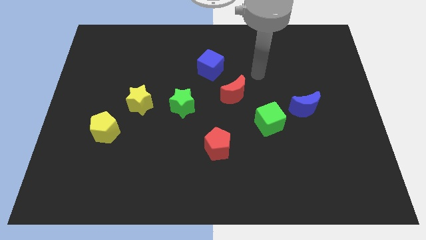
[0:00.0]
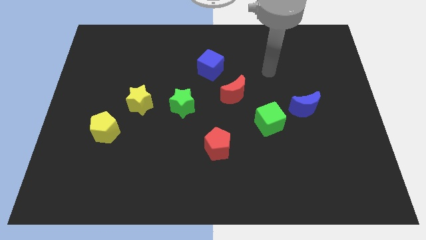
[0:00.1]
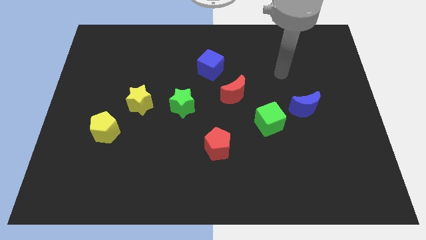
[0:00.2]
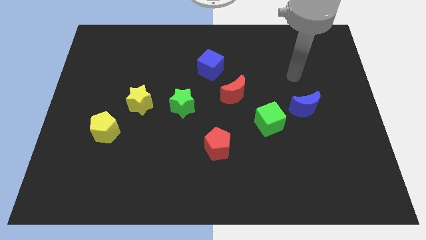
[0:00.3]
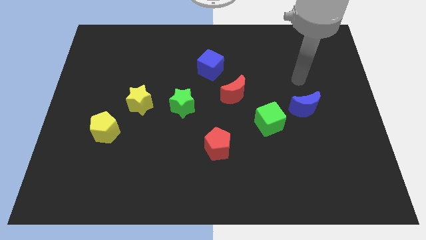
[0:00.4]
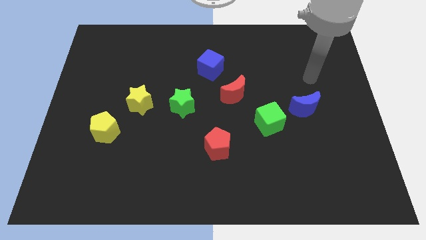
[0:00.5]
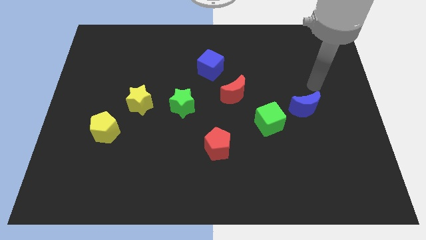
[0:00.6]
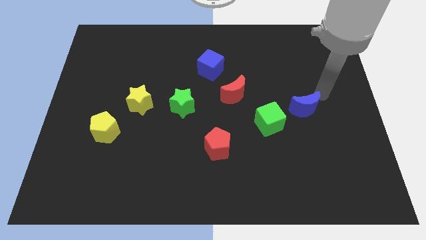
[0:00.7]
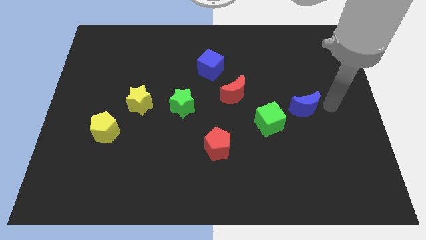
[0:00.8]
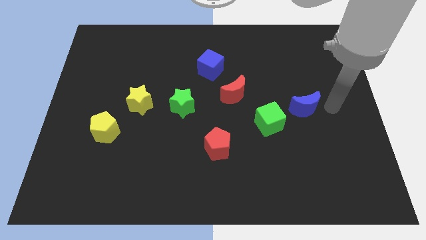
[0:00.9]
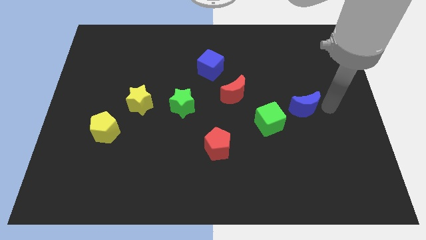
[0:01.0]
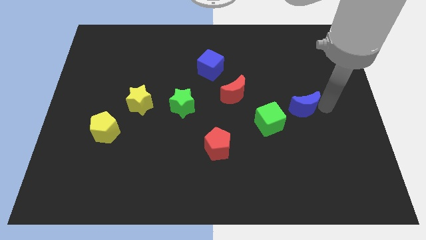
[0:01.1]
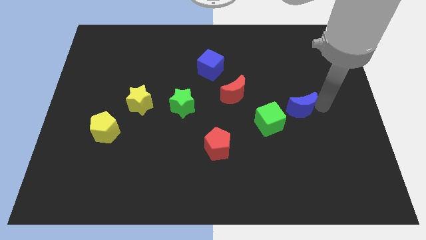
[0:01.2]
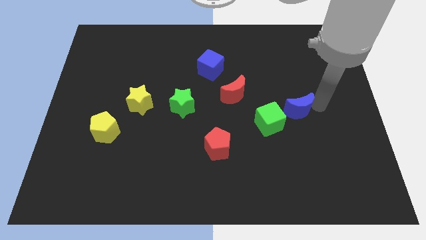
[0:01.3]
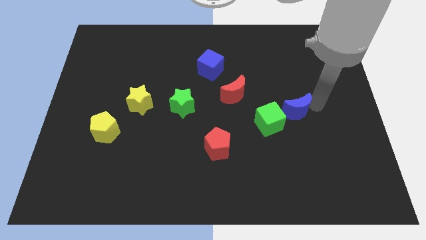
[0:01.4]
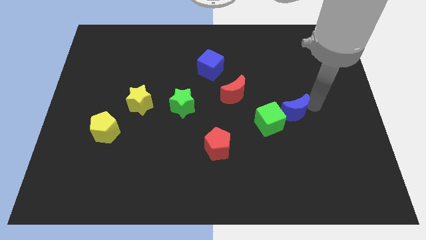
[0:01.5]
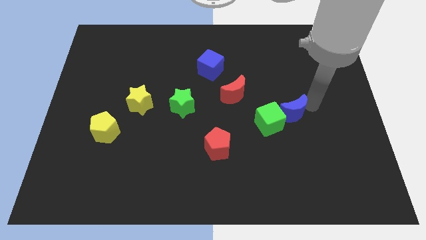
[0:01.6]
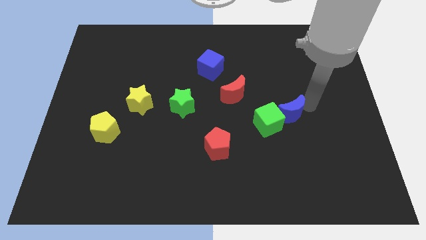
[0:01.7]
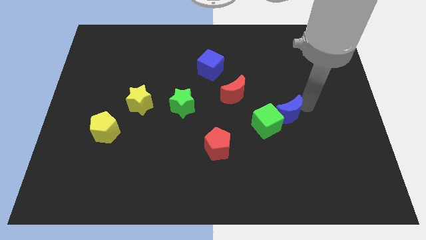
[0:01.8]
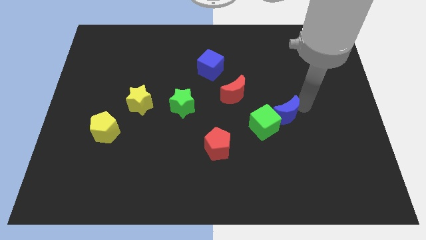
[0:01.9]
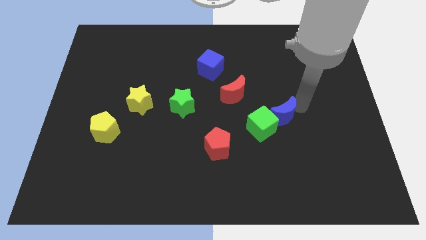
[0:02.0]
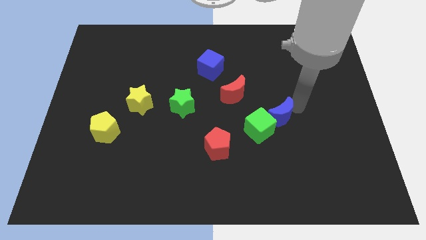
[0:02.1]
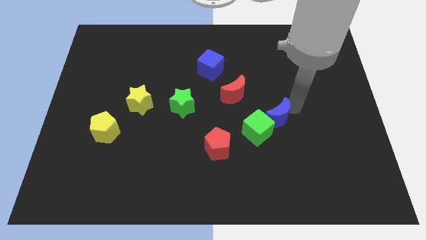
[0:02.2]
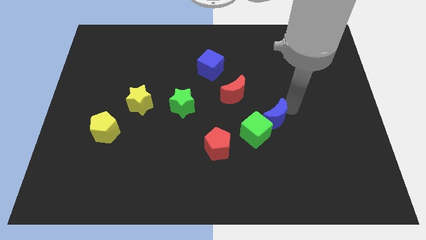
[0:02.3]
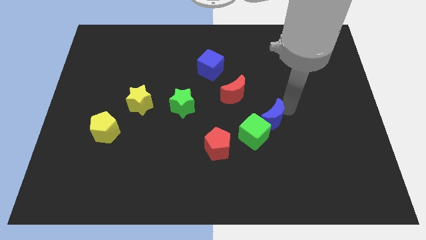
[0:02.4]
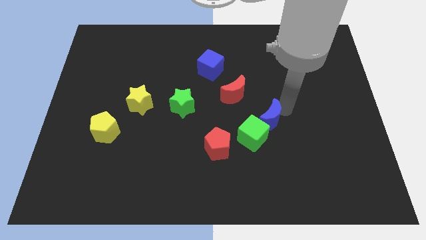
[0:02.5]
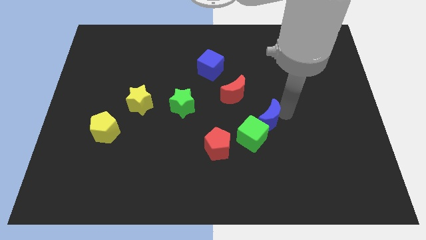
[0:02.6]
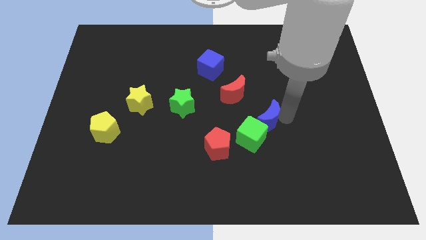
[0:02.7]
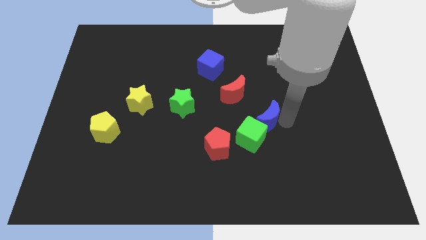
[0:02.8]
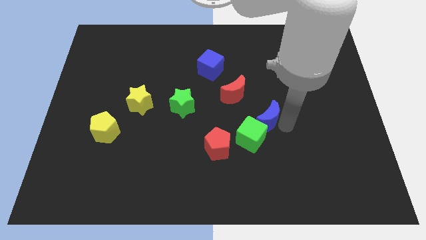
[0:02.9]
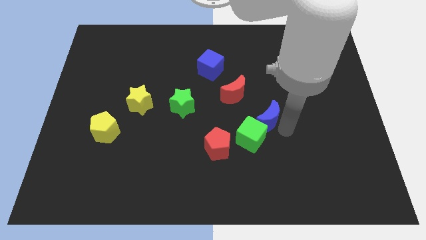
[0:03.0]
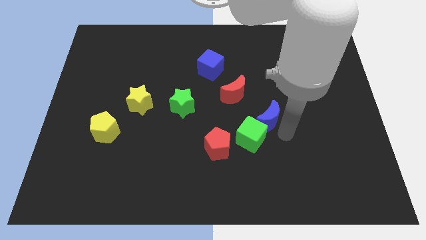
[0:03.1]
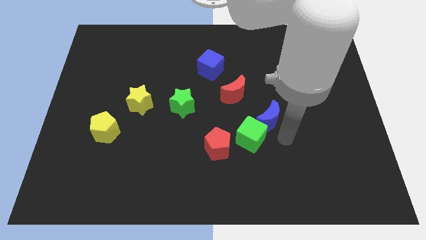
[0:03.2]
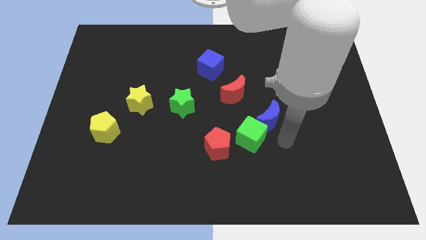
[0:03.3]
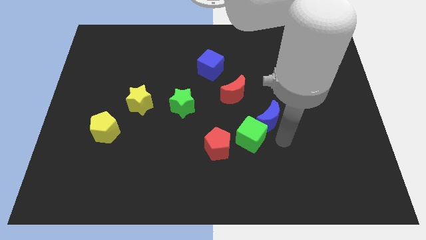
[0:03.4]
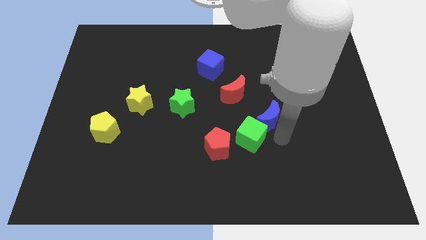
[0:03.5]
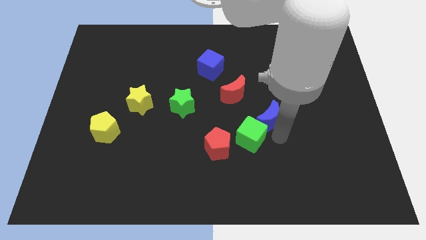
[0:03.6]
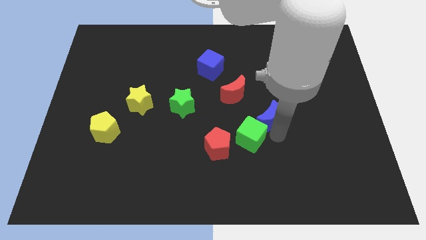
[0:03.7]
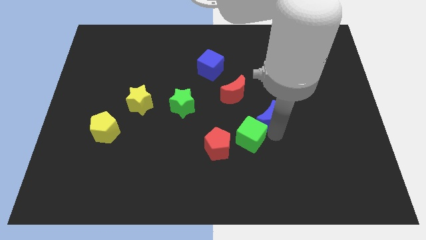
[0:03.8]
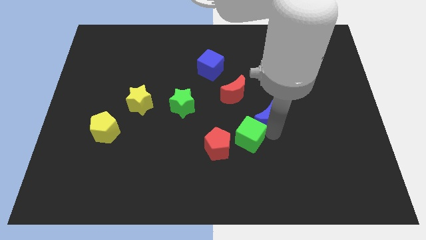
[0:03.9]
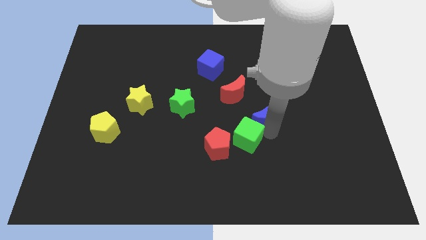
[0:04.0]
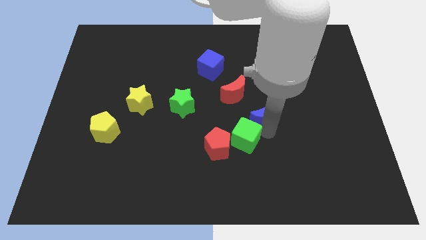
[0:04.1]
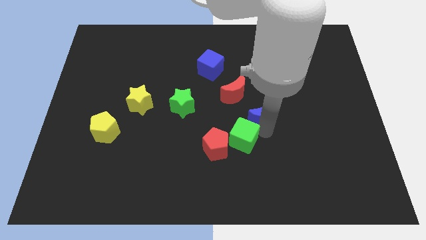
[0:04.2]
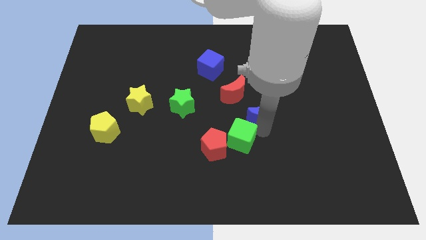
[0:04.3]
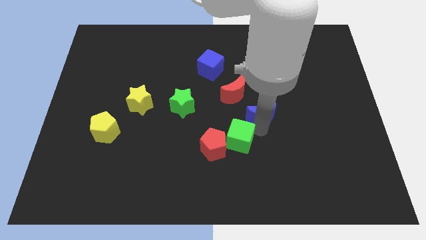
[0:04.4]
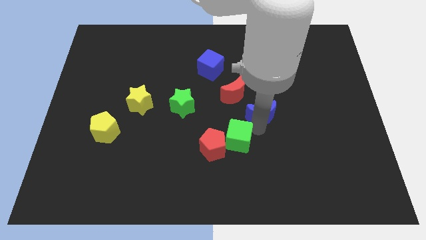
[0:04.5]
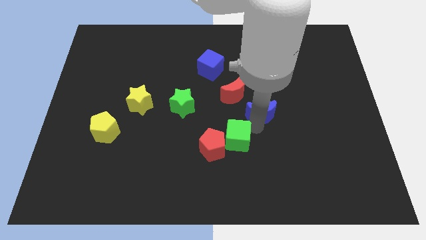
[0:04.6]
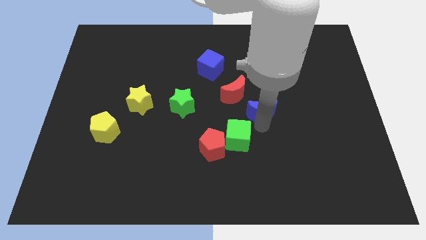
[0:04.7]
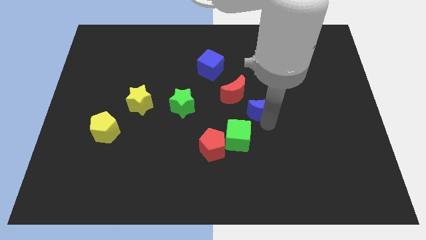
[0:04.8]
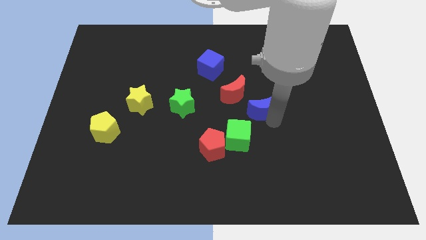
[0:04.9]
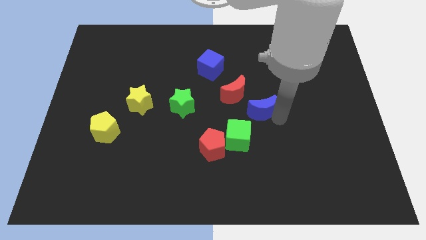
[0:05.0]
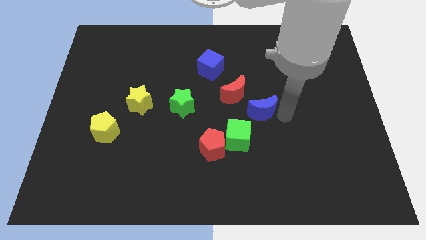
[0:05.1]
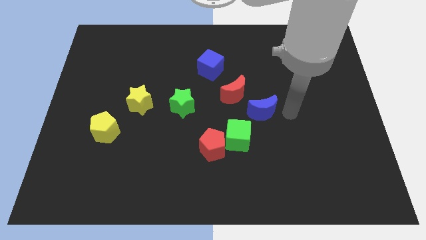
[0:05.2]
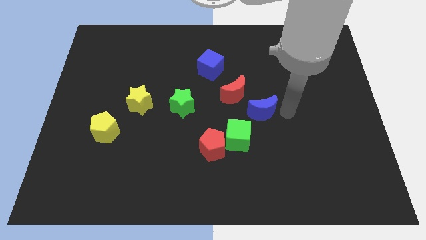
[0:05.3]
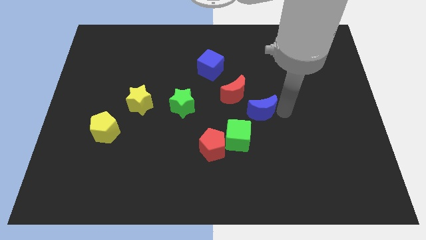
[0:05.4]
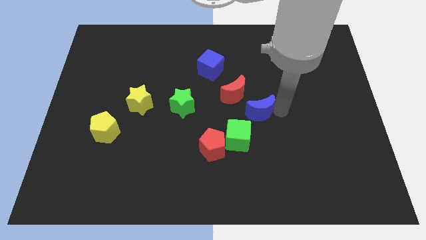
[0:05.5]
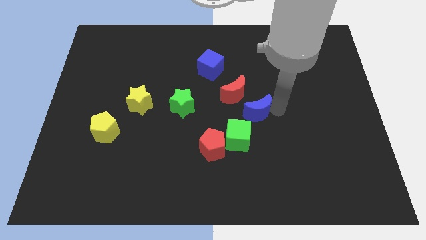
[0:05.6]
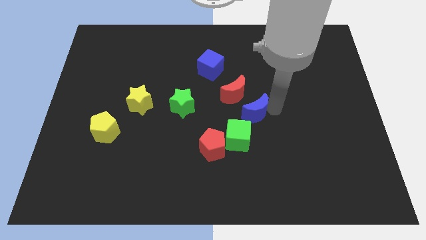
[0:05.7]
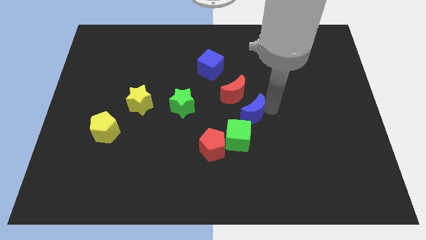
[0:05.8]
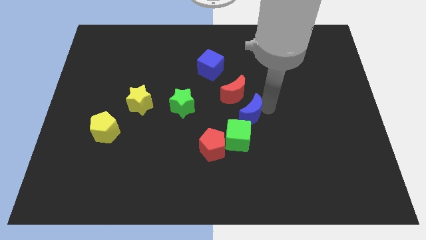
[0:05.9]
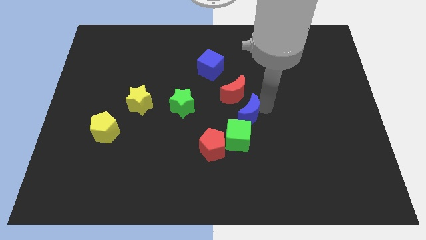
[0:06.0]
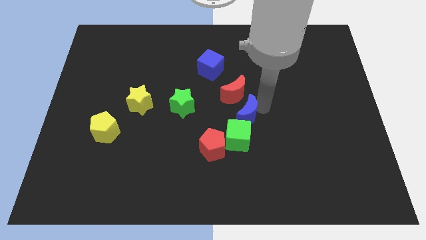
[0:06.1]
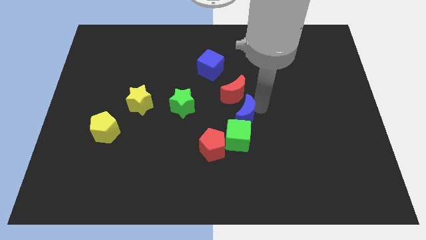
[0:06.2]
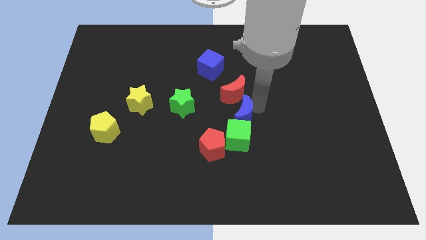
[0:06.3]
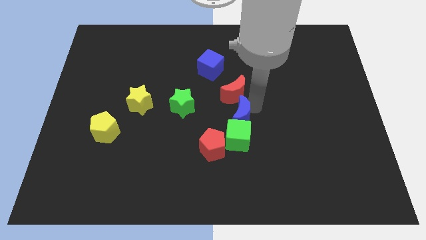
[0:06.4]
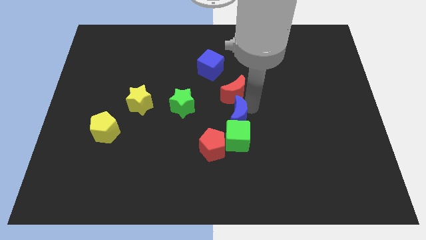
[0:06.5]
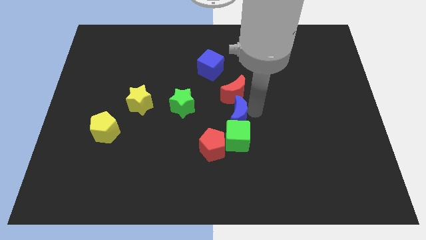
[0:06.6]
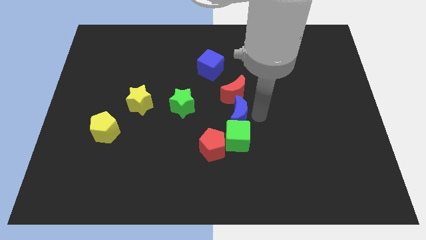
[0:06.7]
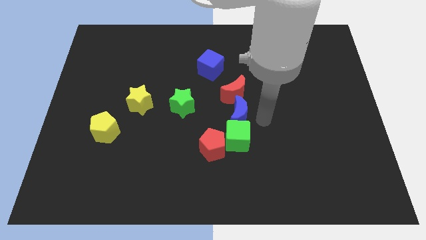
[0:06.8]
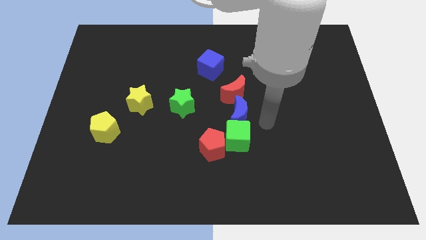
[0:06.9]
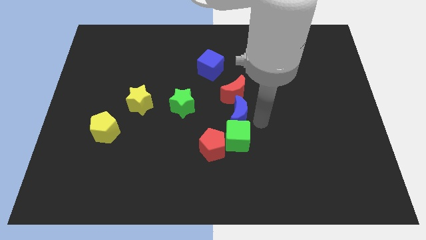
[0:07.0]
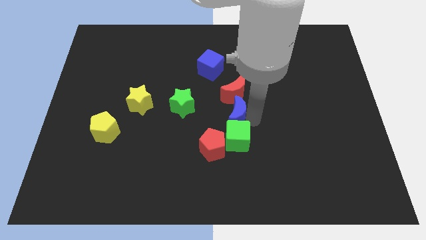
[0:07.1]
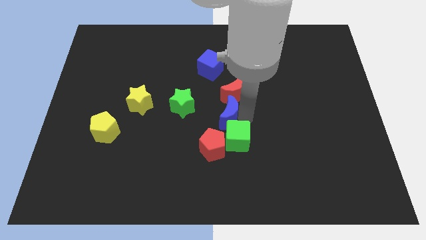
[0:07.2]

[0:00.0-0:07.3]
put the blue moon above the red pentagon
